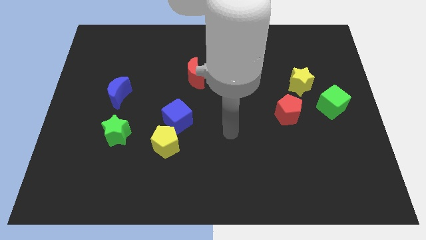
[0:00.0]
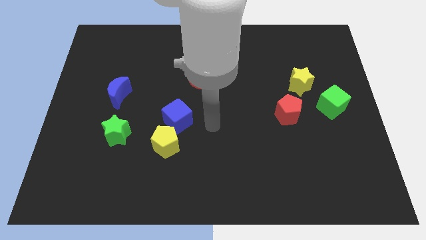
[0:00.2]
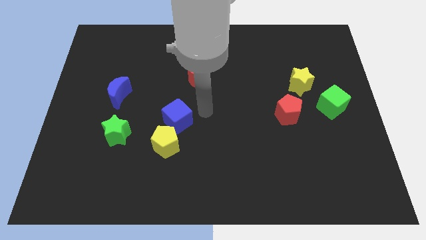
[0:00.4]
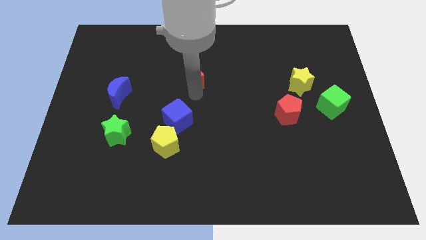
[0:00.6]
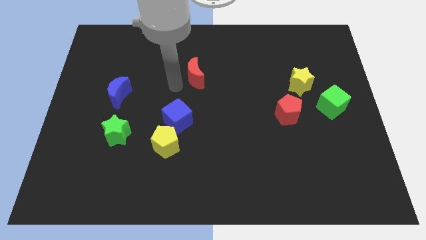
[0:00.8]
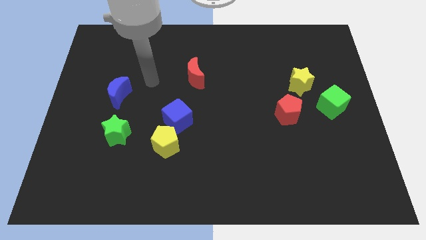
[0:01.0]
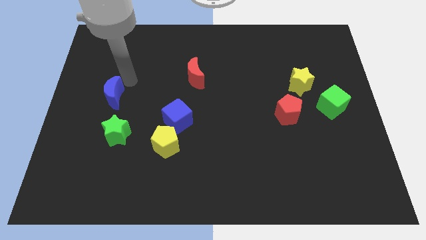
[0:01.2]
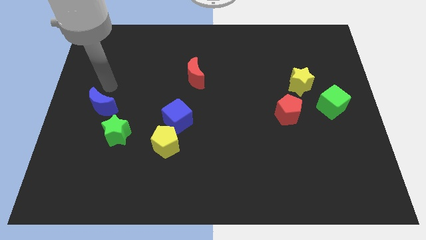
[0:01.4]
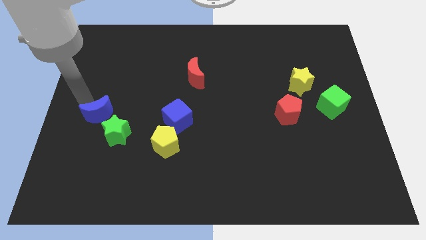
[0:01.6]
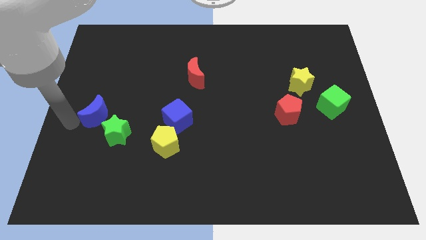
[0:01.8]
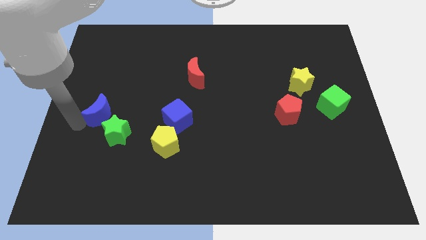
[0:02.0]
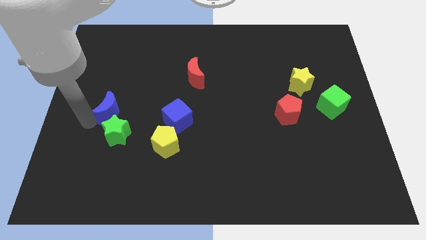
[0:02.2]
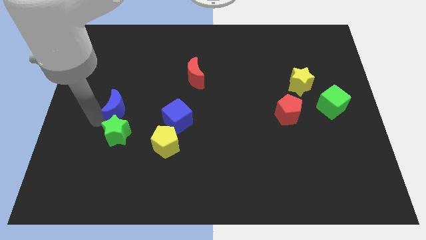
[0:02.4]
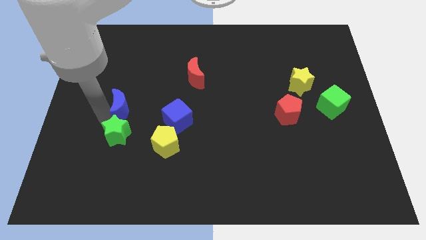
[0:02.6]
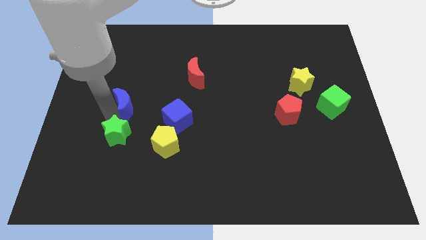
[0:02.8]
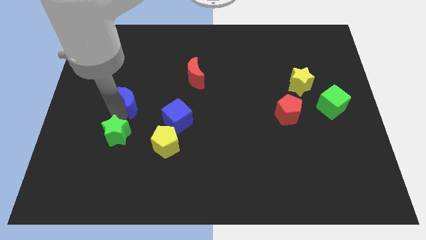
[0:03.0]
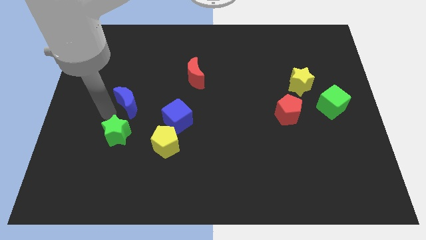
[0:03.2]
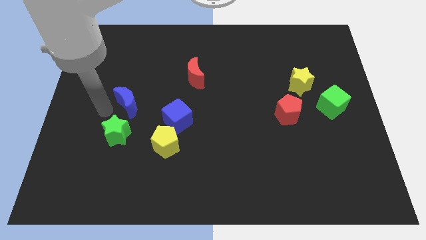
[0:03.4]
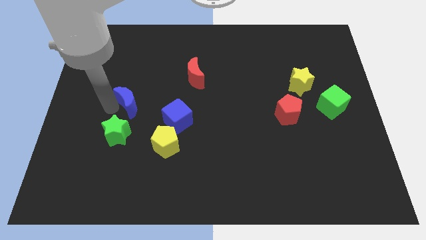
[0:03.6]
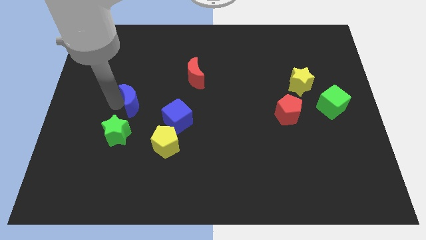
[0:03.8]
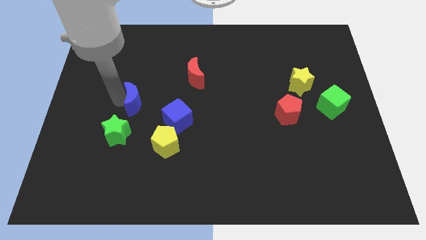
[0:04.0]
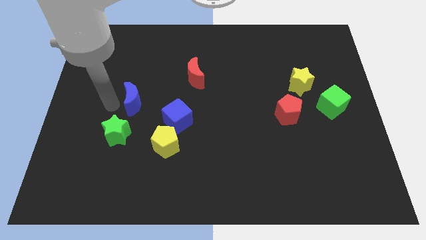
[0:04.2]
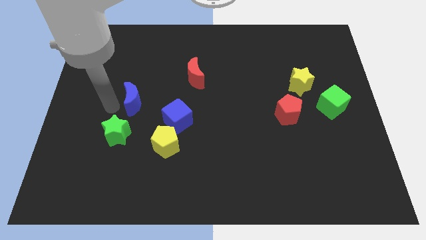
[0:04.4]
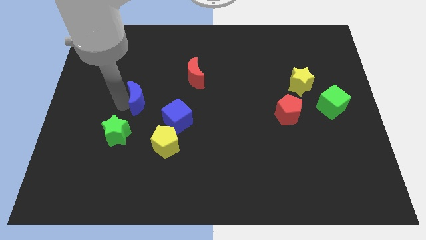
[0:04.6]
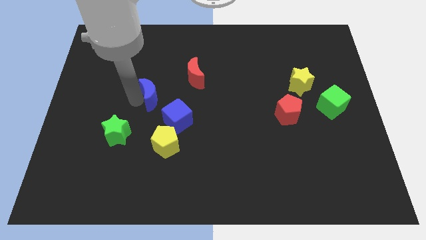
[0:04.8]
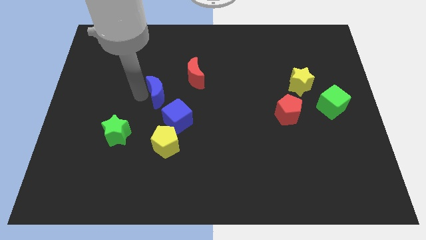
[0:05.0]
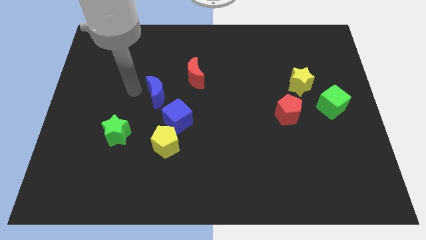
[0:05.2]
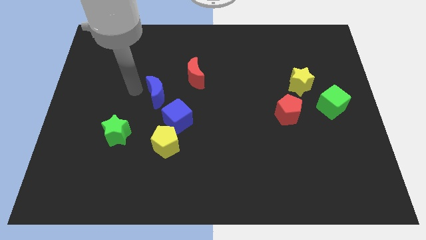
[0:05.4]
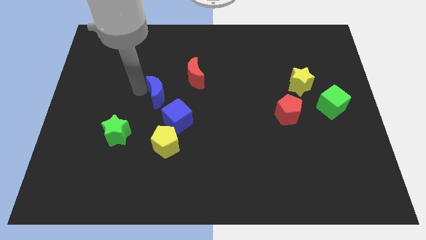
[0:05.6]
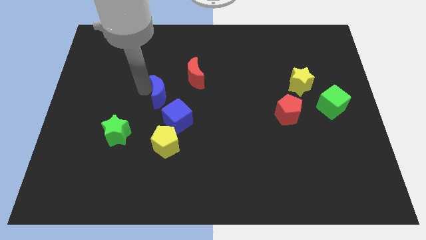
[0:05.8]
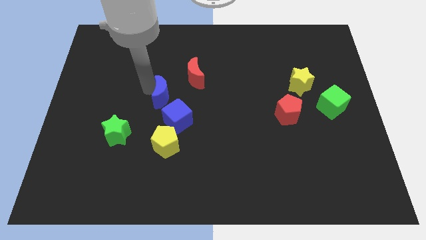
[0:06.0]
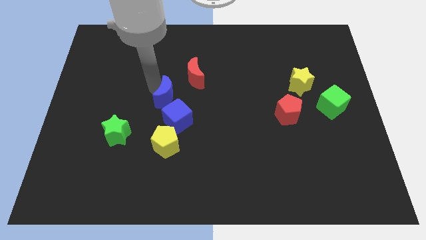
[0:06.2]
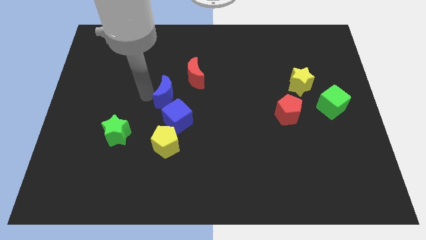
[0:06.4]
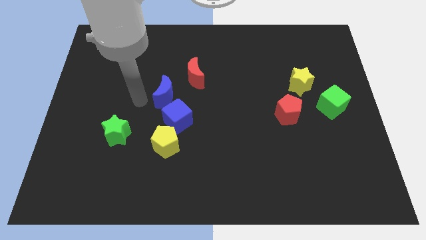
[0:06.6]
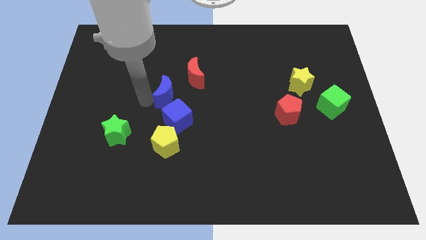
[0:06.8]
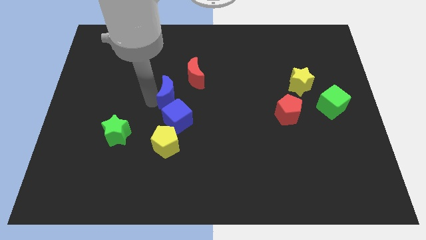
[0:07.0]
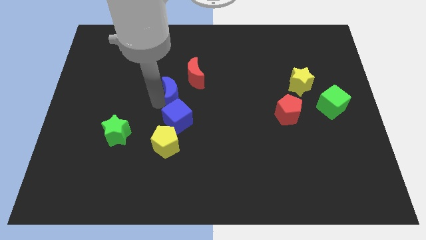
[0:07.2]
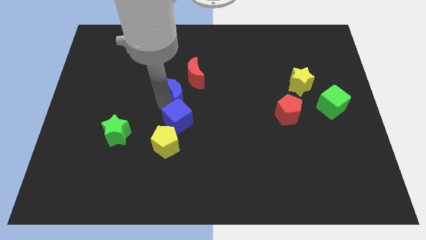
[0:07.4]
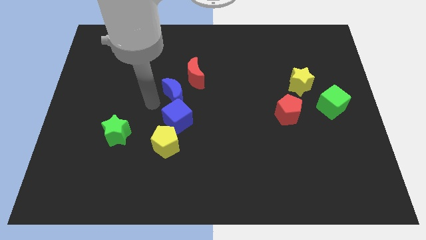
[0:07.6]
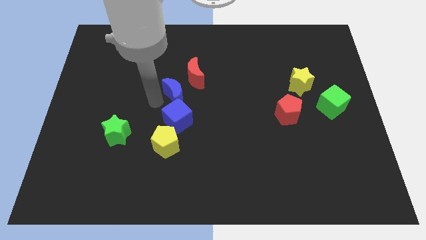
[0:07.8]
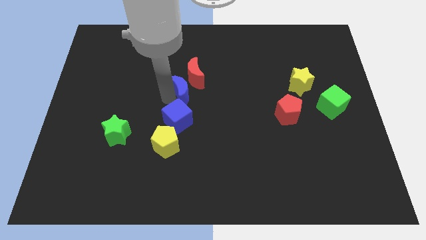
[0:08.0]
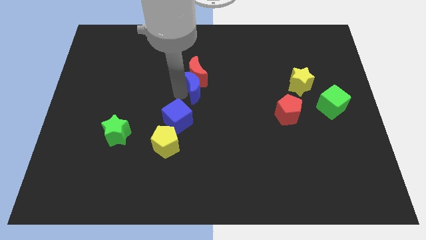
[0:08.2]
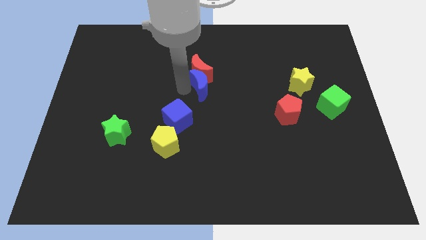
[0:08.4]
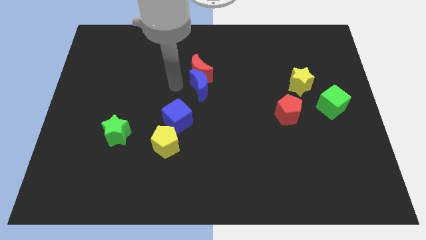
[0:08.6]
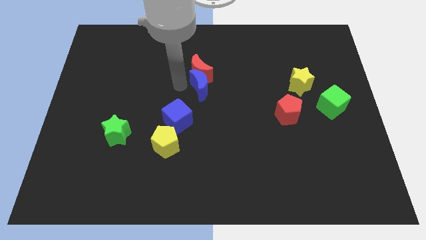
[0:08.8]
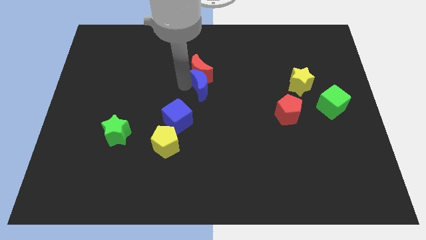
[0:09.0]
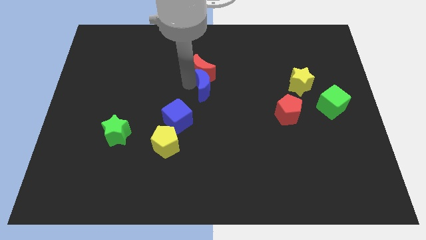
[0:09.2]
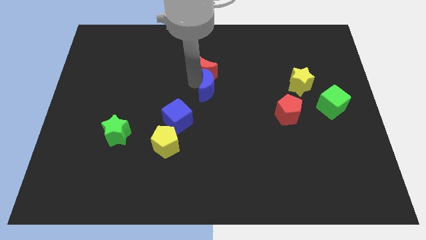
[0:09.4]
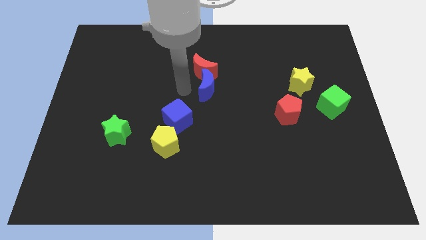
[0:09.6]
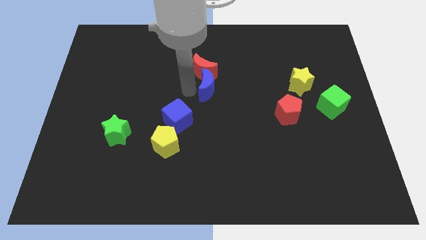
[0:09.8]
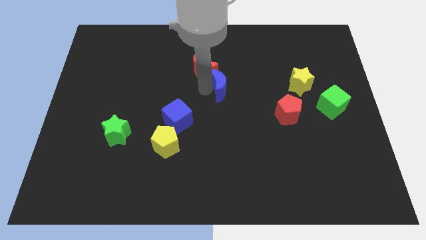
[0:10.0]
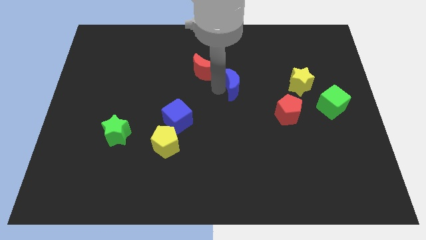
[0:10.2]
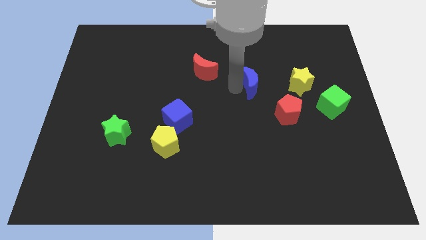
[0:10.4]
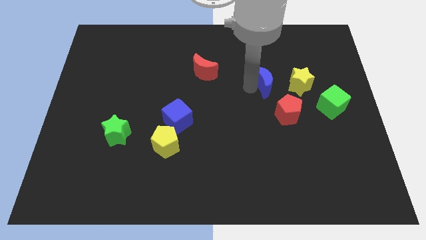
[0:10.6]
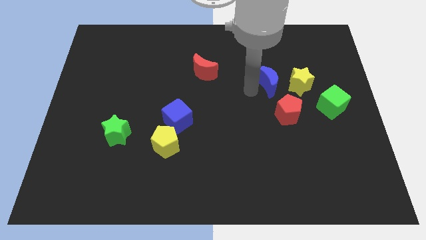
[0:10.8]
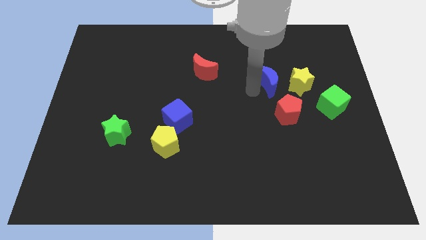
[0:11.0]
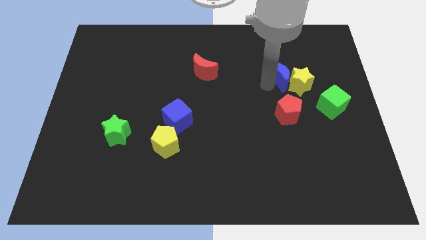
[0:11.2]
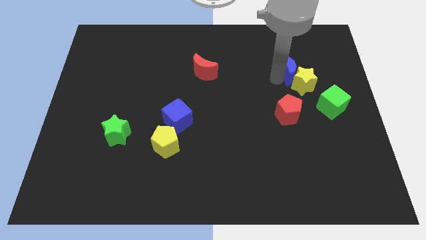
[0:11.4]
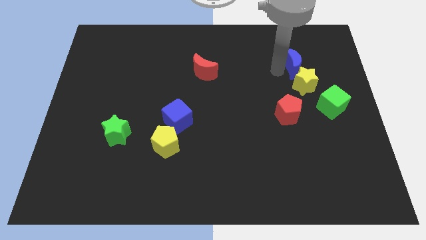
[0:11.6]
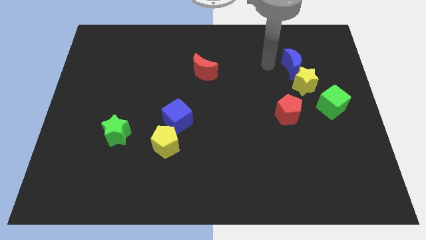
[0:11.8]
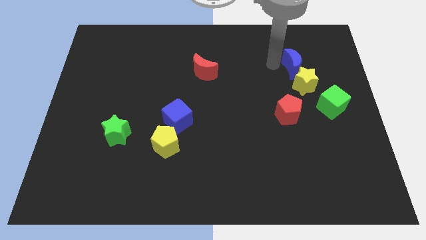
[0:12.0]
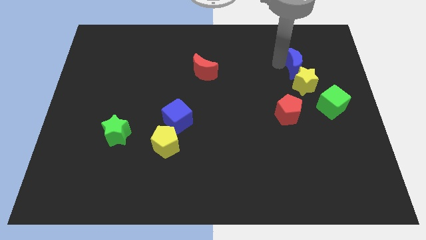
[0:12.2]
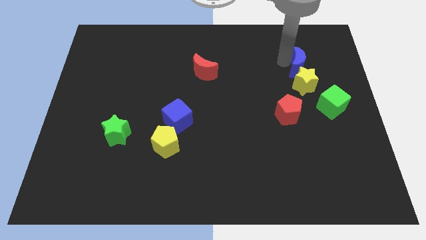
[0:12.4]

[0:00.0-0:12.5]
push the blue moon diagonally up and to the right of the yellow star
